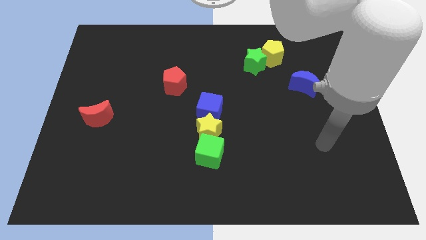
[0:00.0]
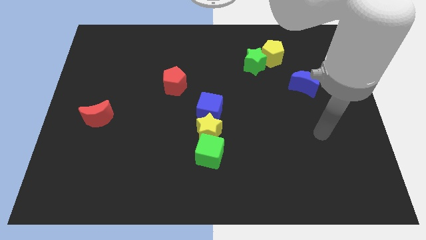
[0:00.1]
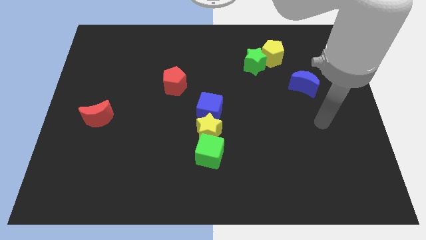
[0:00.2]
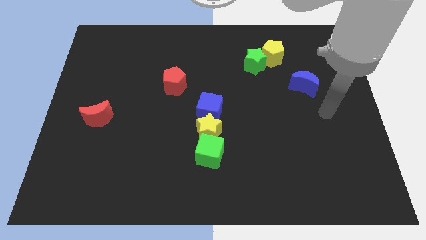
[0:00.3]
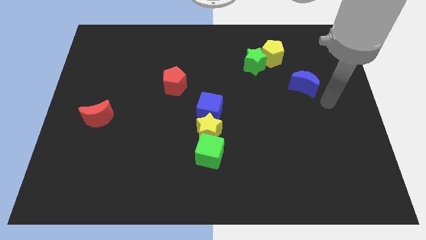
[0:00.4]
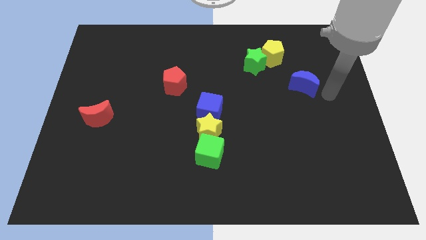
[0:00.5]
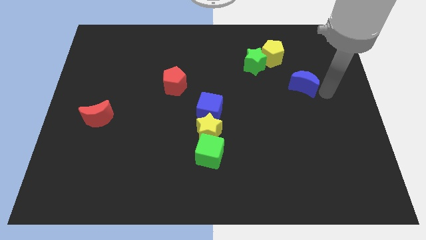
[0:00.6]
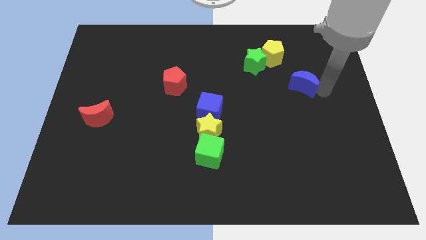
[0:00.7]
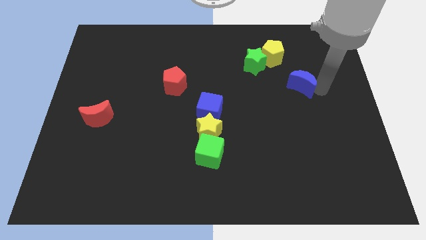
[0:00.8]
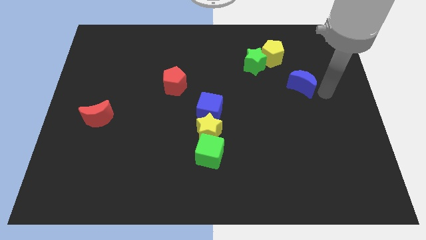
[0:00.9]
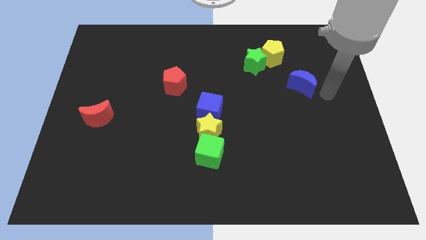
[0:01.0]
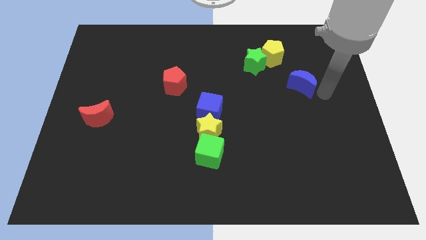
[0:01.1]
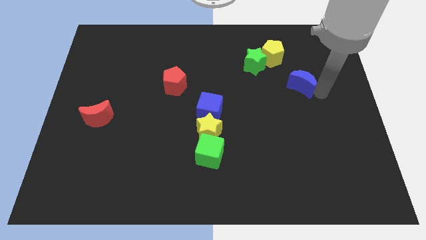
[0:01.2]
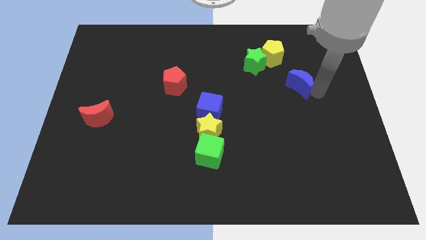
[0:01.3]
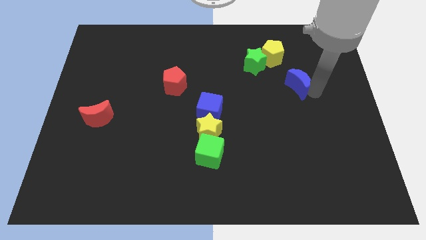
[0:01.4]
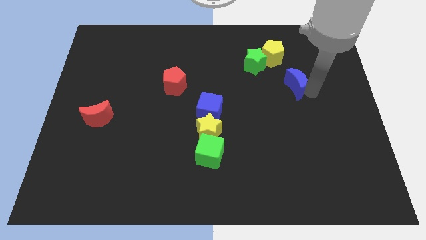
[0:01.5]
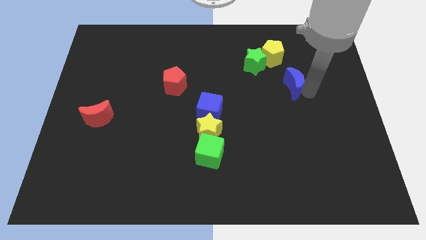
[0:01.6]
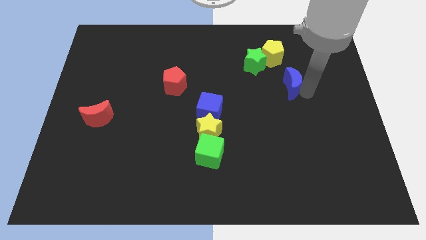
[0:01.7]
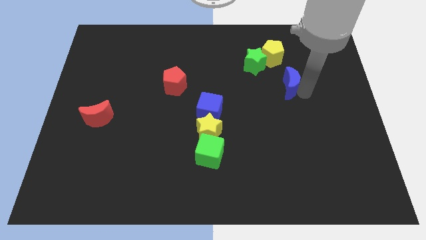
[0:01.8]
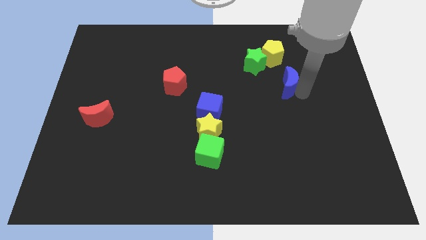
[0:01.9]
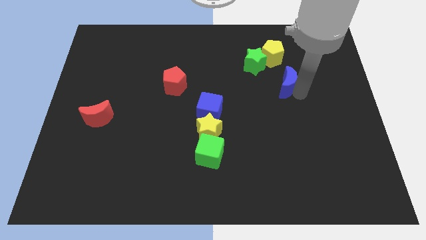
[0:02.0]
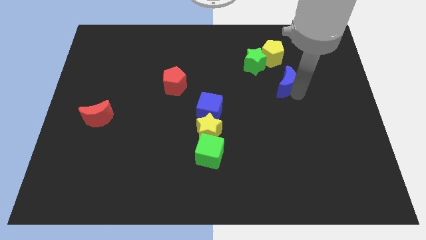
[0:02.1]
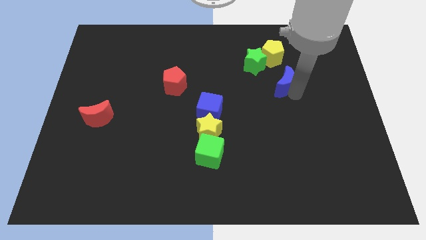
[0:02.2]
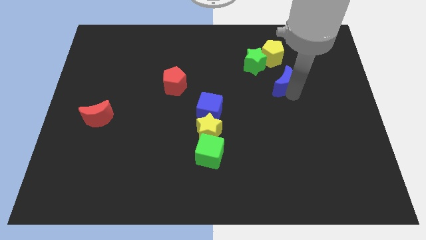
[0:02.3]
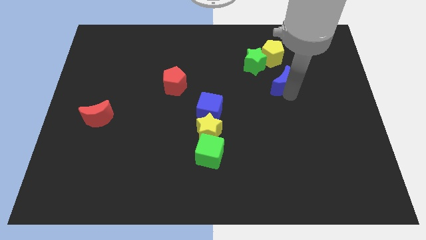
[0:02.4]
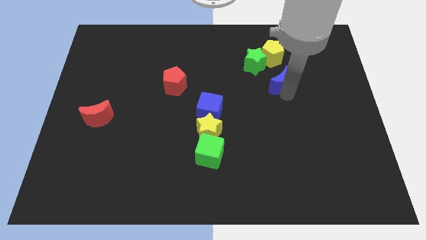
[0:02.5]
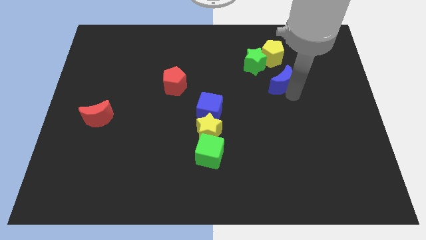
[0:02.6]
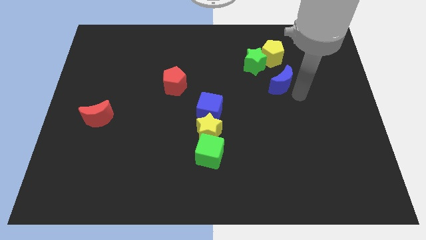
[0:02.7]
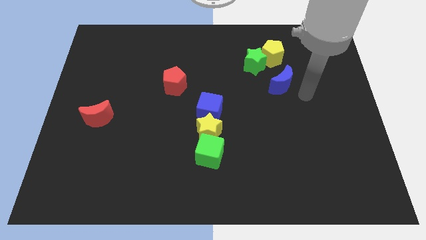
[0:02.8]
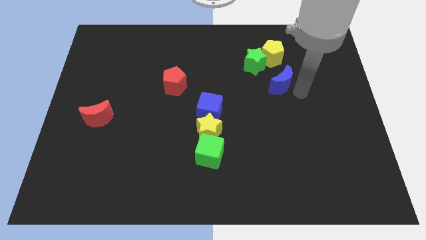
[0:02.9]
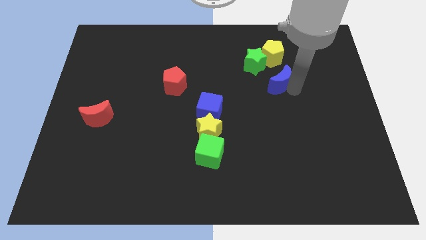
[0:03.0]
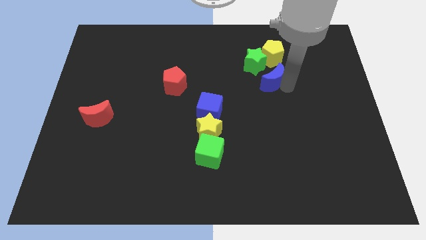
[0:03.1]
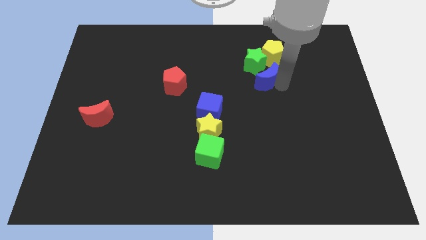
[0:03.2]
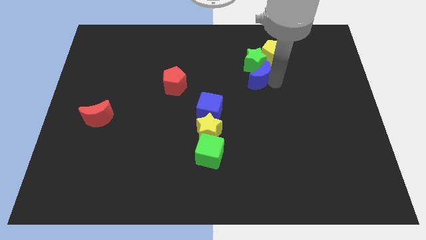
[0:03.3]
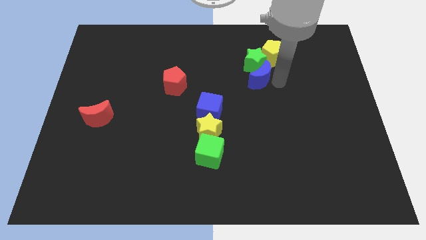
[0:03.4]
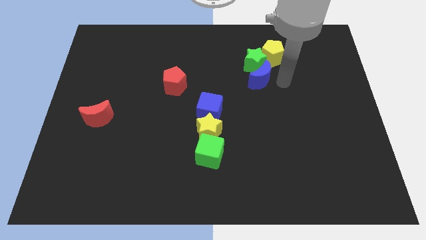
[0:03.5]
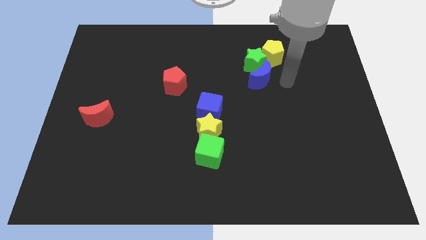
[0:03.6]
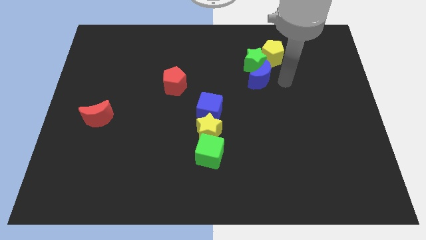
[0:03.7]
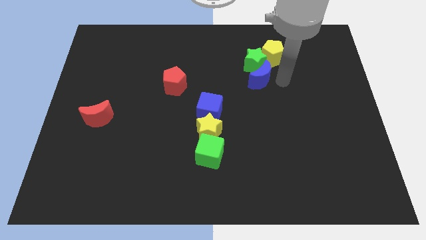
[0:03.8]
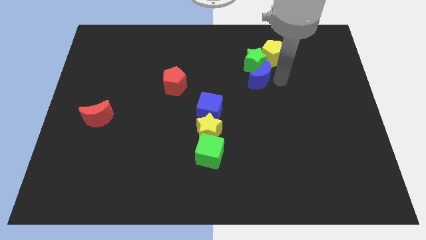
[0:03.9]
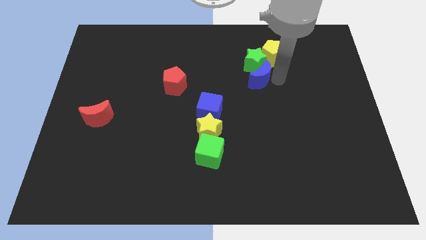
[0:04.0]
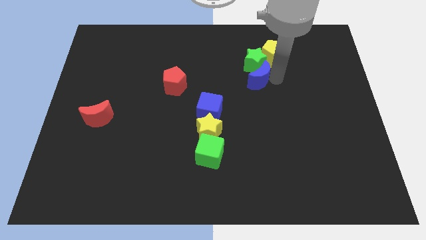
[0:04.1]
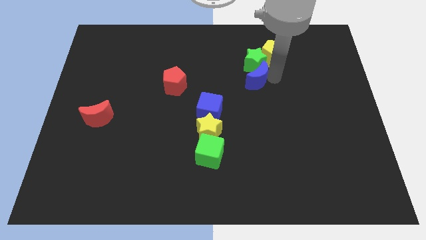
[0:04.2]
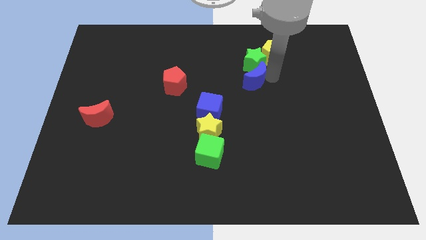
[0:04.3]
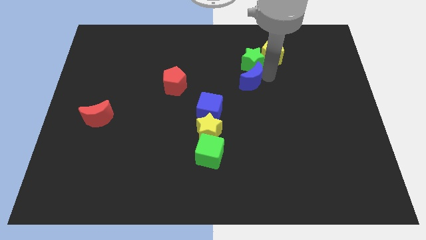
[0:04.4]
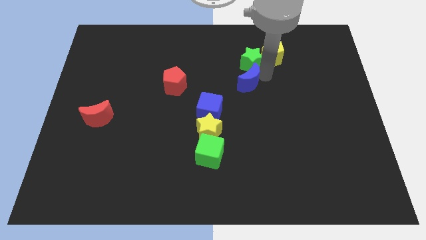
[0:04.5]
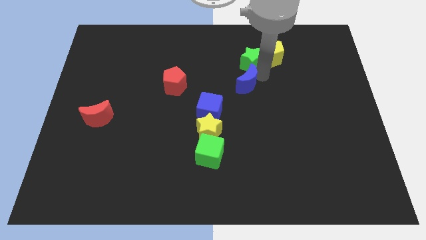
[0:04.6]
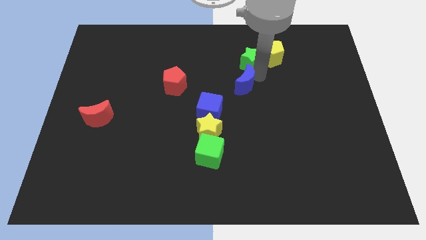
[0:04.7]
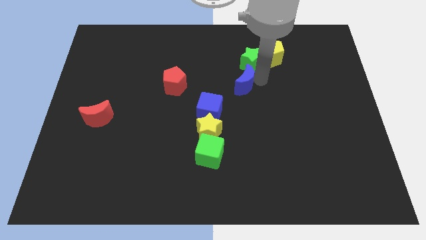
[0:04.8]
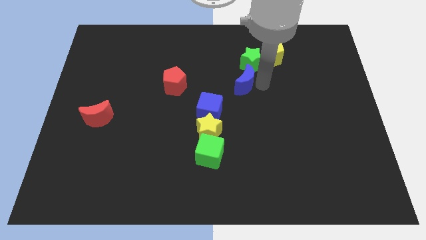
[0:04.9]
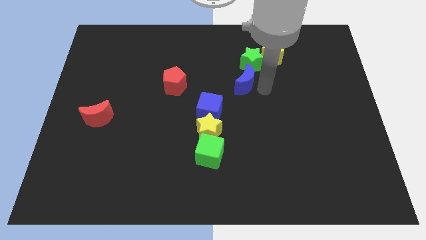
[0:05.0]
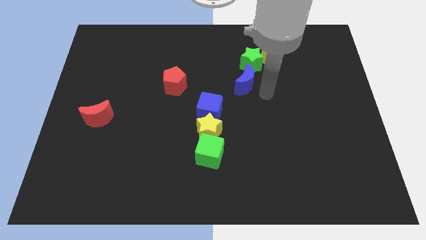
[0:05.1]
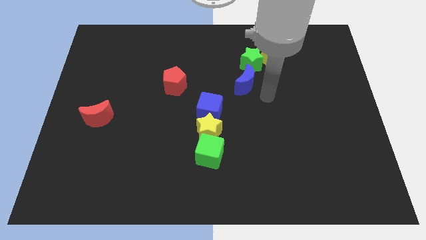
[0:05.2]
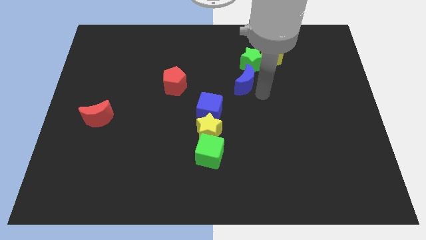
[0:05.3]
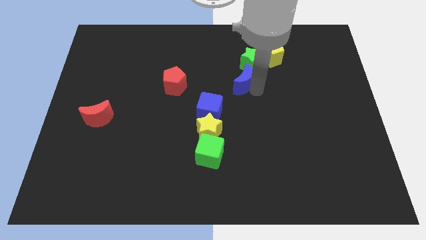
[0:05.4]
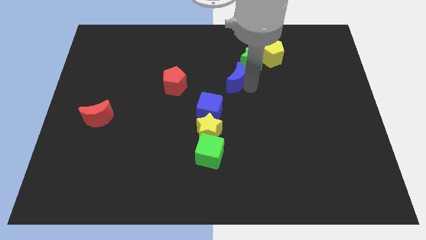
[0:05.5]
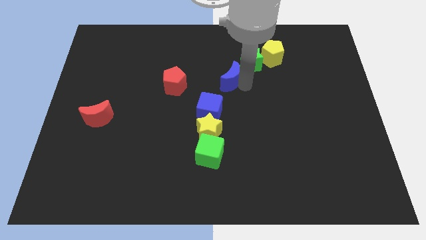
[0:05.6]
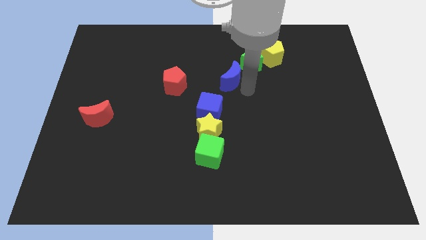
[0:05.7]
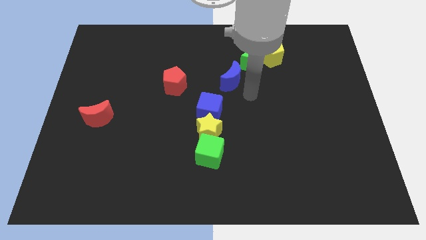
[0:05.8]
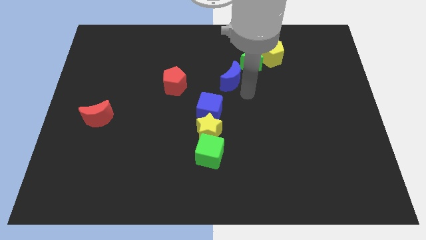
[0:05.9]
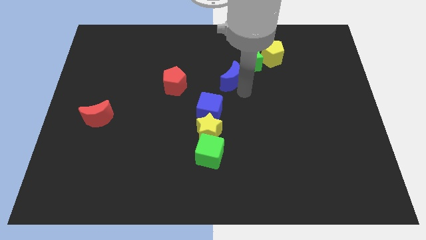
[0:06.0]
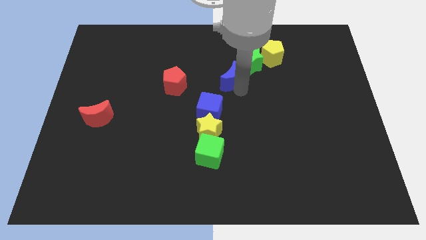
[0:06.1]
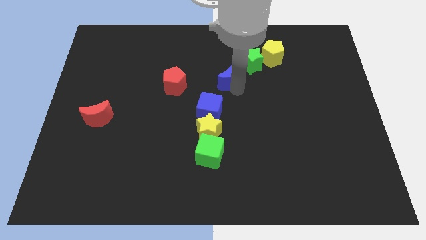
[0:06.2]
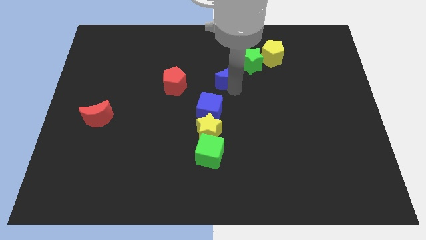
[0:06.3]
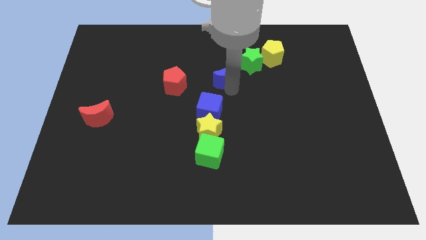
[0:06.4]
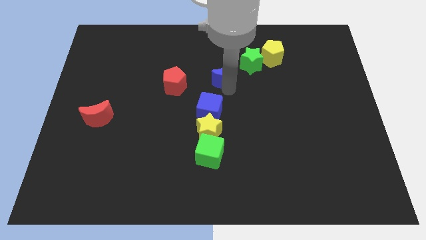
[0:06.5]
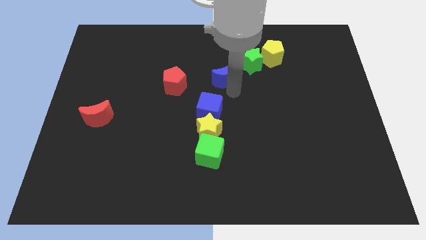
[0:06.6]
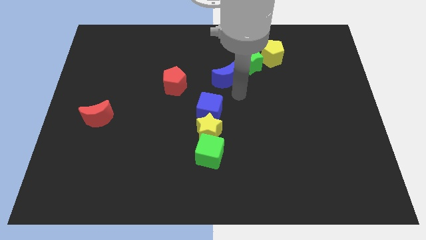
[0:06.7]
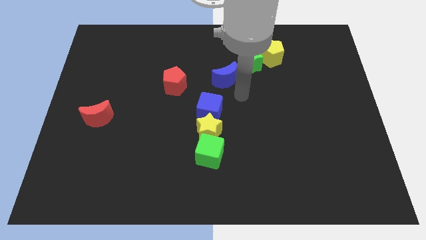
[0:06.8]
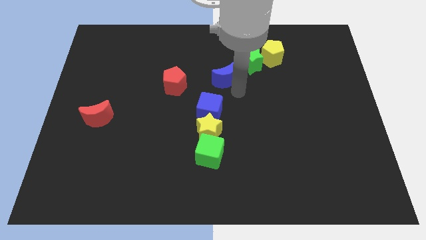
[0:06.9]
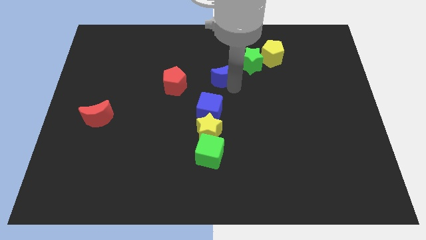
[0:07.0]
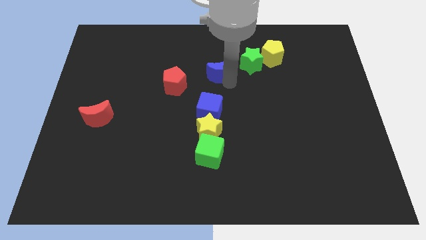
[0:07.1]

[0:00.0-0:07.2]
put the blue moon to the left side of the green star
